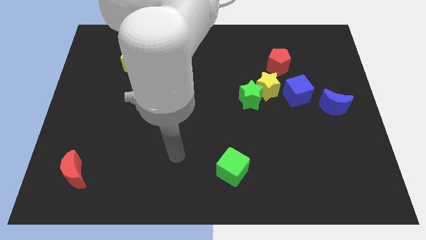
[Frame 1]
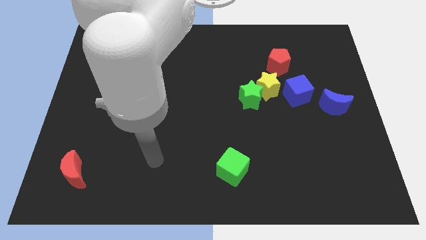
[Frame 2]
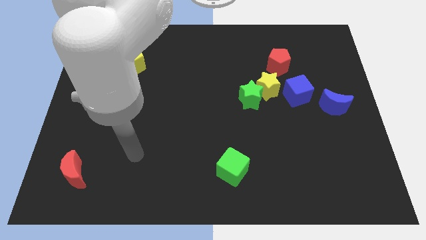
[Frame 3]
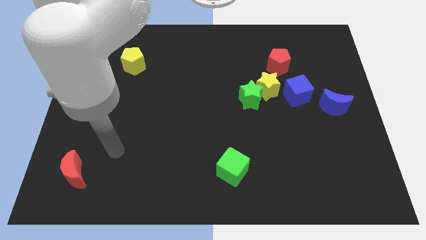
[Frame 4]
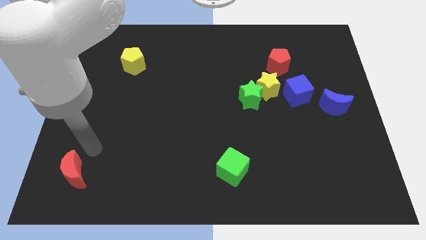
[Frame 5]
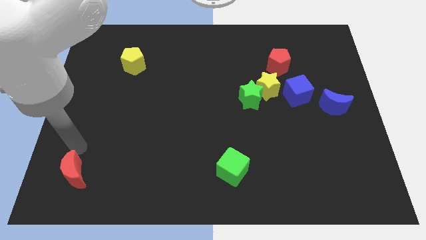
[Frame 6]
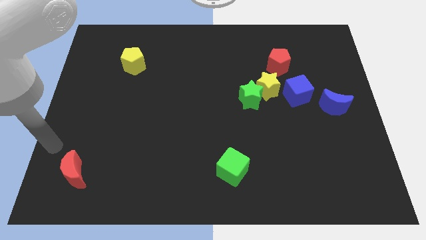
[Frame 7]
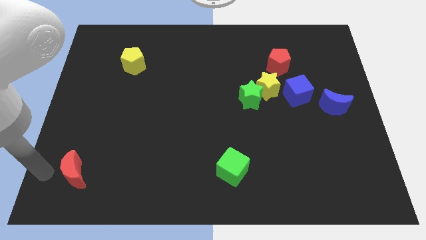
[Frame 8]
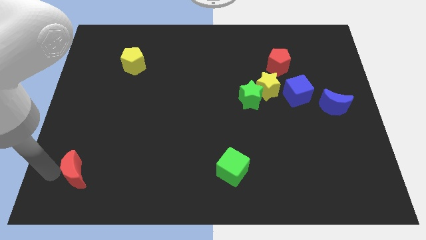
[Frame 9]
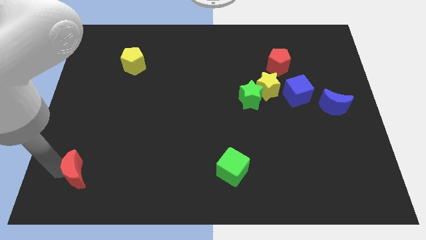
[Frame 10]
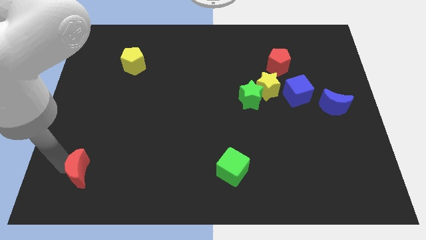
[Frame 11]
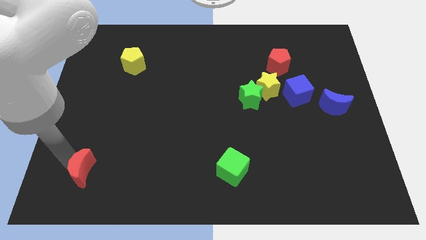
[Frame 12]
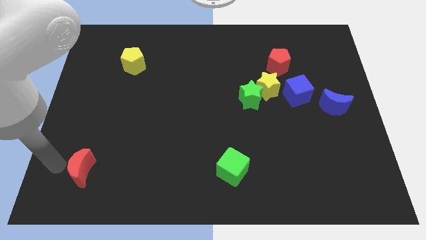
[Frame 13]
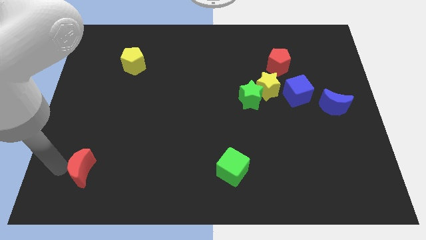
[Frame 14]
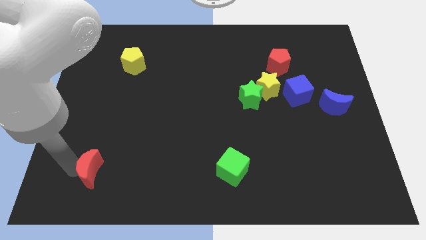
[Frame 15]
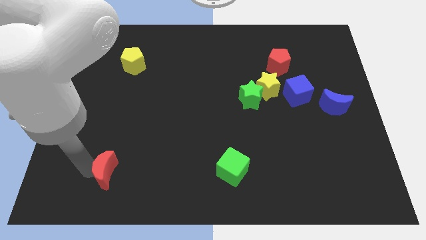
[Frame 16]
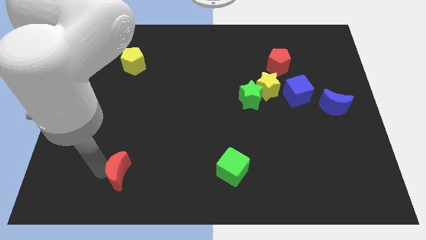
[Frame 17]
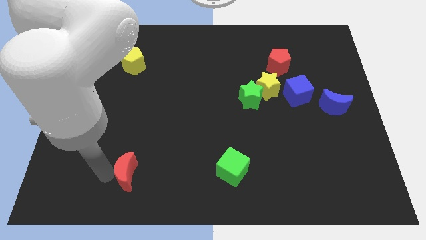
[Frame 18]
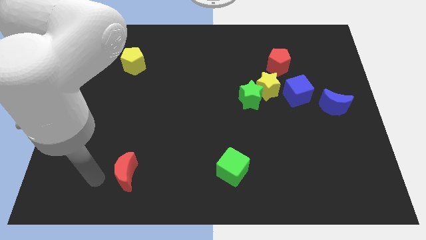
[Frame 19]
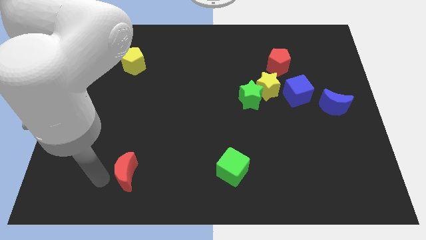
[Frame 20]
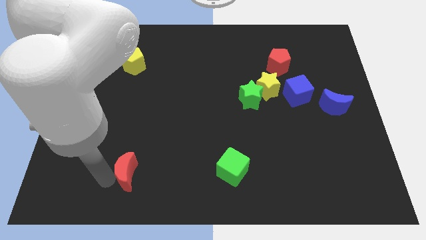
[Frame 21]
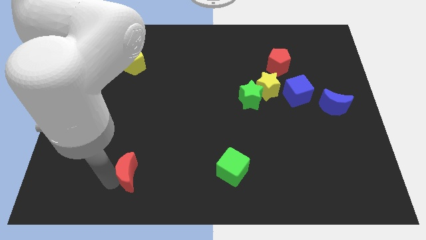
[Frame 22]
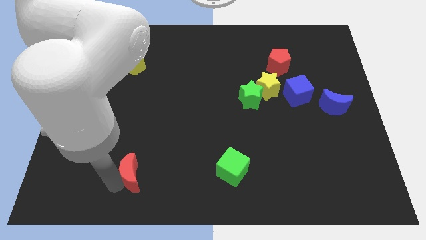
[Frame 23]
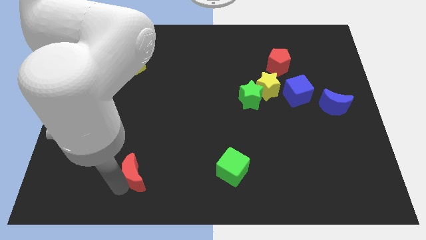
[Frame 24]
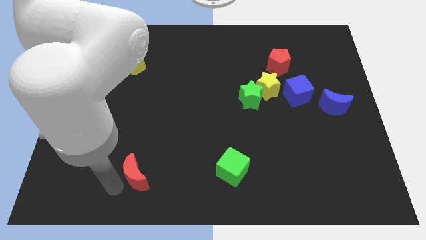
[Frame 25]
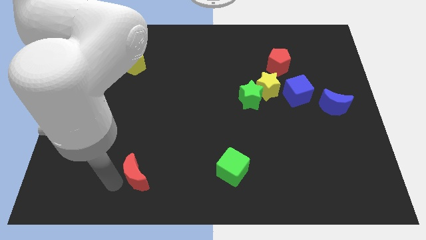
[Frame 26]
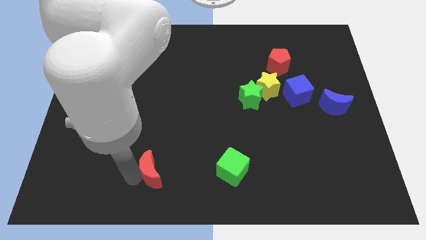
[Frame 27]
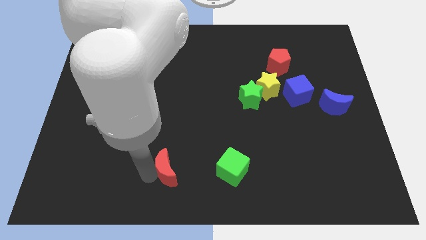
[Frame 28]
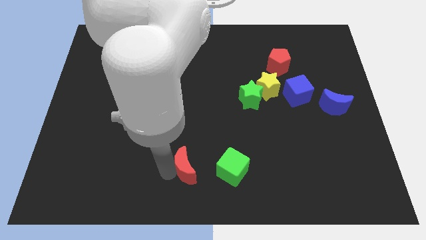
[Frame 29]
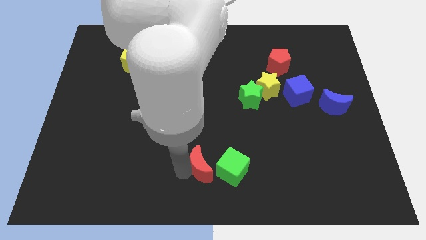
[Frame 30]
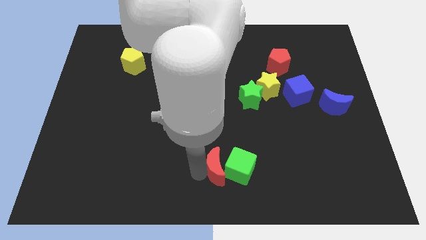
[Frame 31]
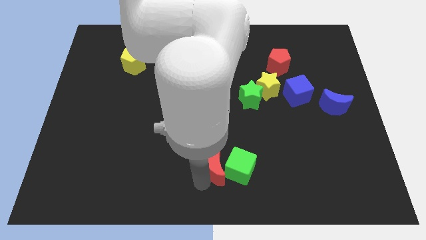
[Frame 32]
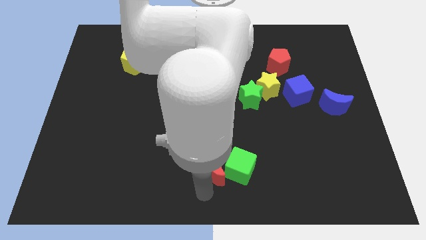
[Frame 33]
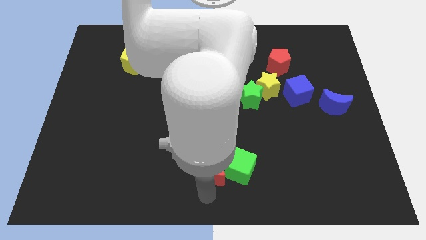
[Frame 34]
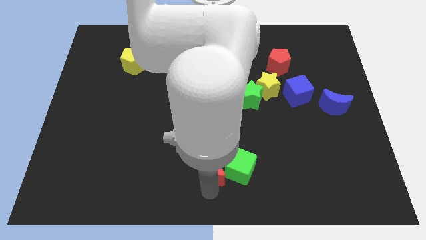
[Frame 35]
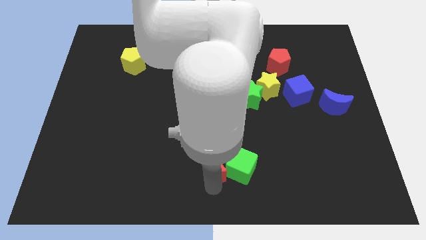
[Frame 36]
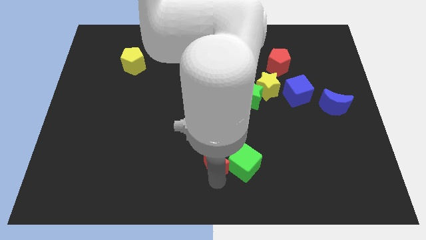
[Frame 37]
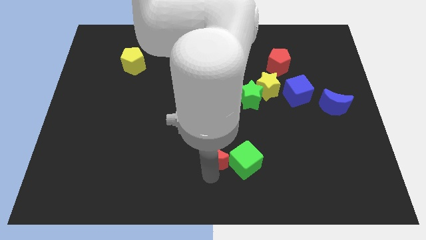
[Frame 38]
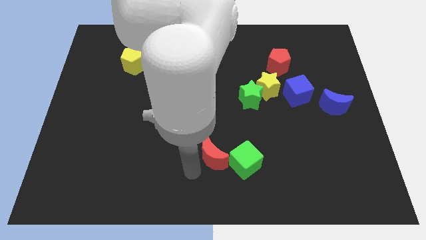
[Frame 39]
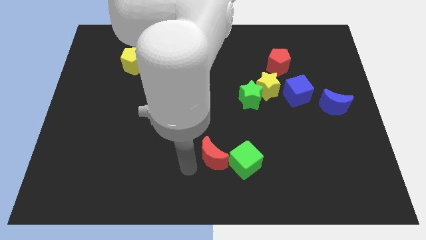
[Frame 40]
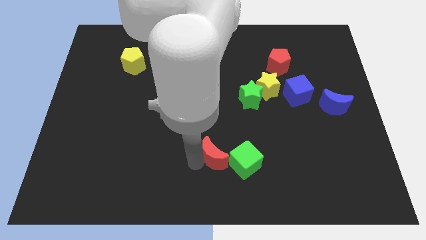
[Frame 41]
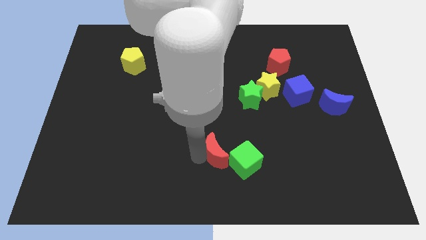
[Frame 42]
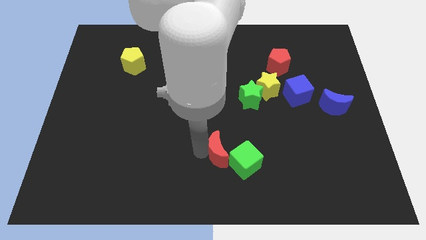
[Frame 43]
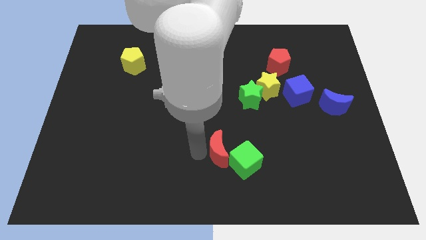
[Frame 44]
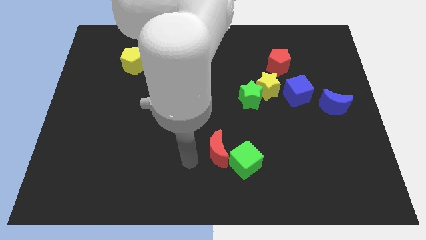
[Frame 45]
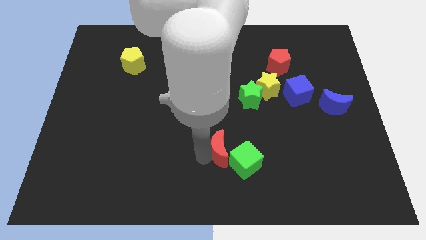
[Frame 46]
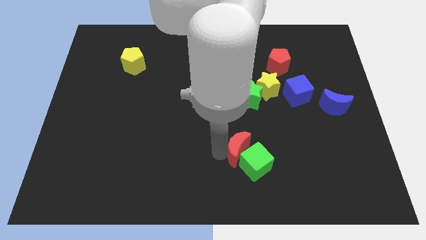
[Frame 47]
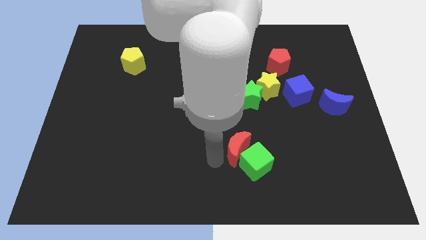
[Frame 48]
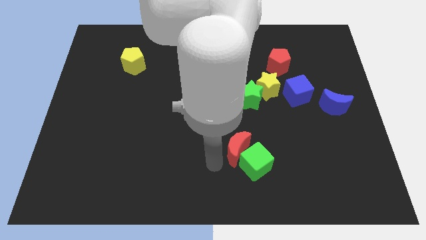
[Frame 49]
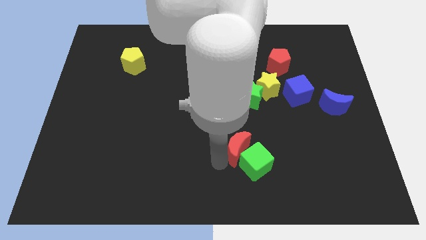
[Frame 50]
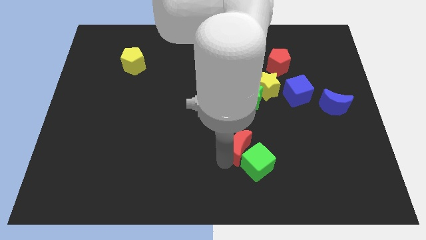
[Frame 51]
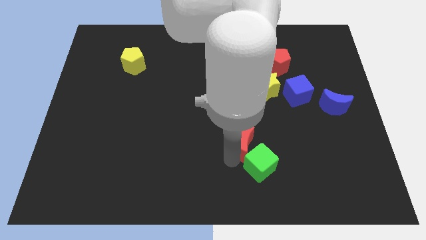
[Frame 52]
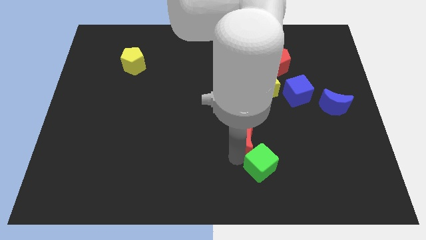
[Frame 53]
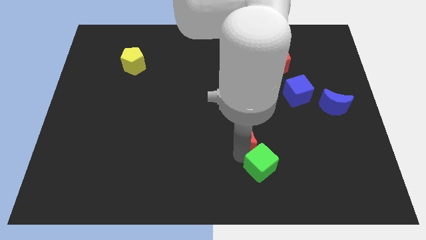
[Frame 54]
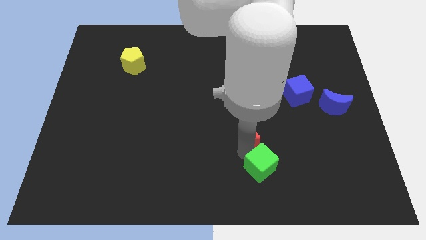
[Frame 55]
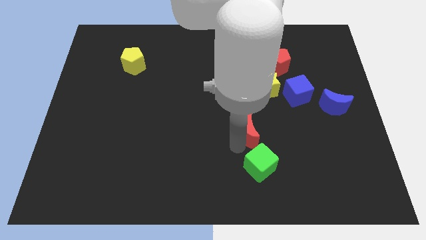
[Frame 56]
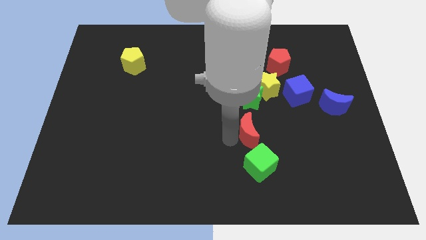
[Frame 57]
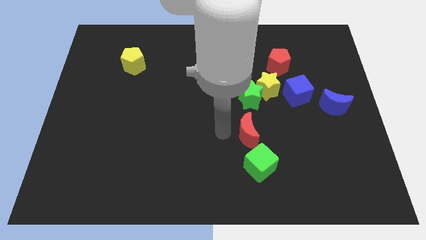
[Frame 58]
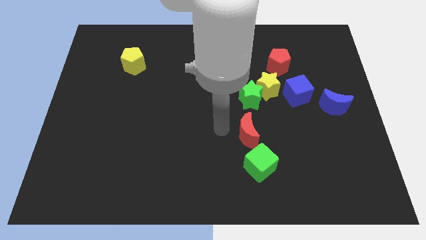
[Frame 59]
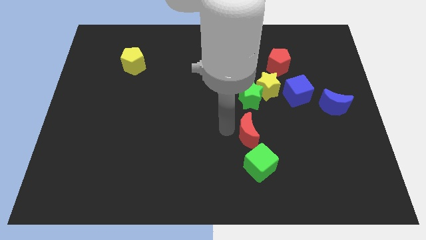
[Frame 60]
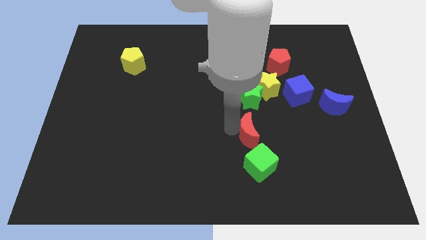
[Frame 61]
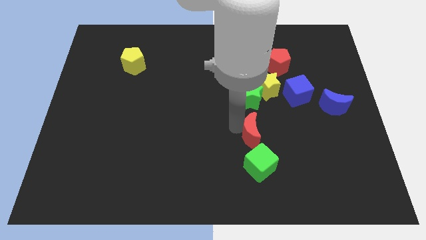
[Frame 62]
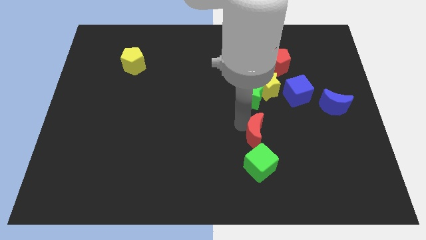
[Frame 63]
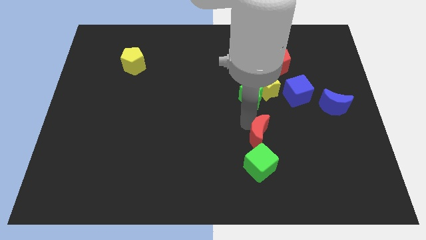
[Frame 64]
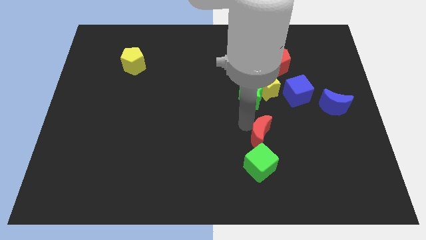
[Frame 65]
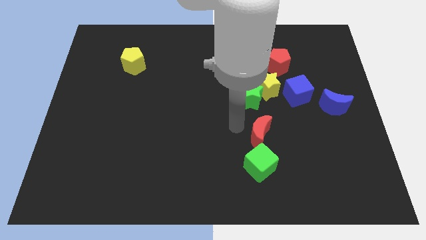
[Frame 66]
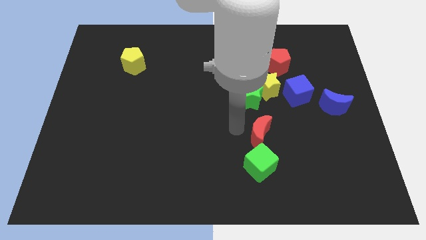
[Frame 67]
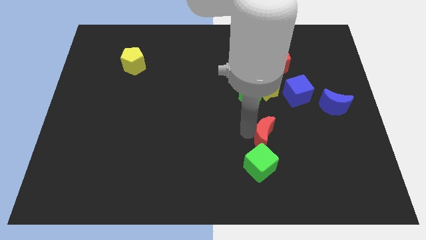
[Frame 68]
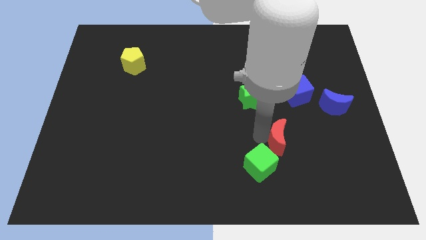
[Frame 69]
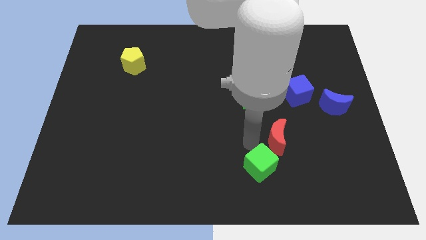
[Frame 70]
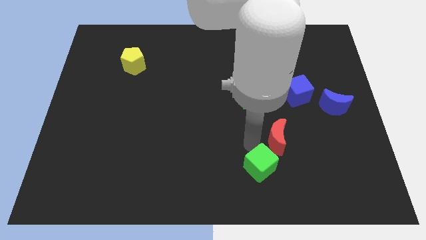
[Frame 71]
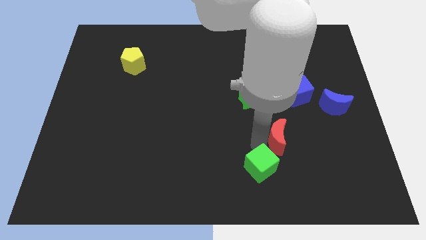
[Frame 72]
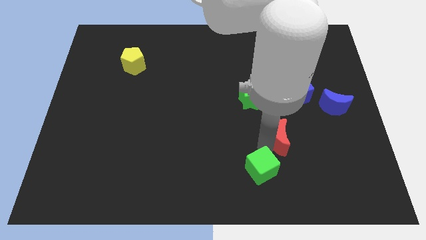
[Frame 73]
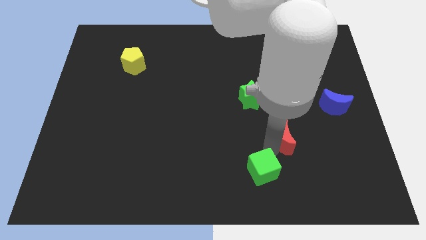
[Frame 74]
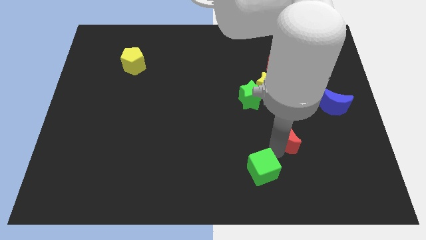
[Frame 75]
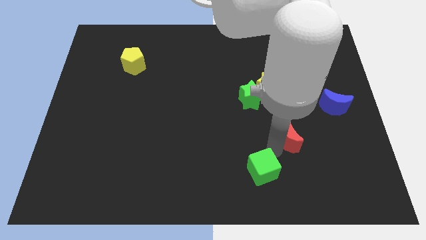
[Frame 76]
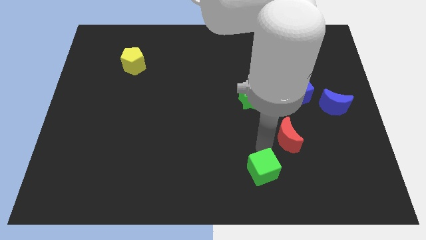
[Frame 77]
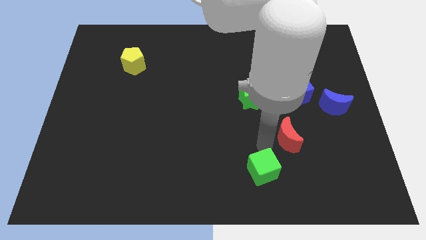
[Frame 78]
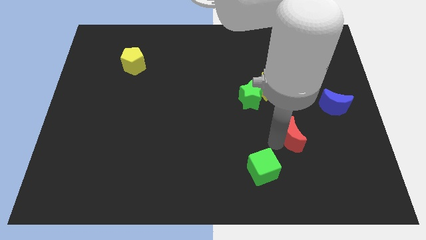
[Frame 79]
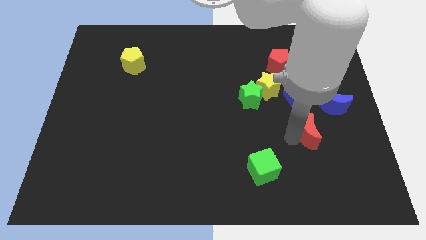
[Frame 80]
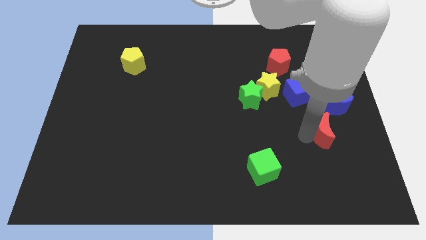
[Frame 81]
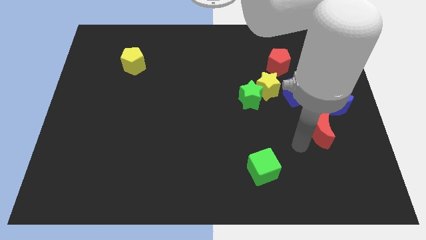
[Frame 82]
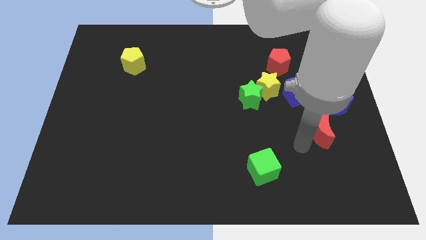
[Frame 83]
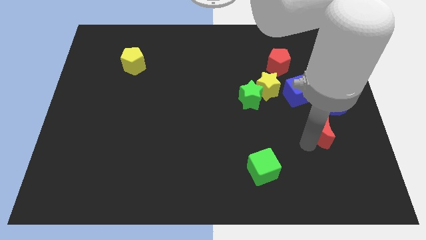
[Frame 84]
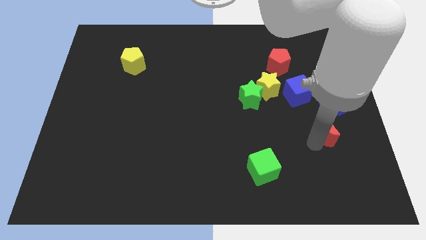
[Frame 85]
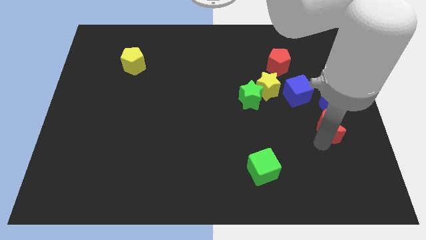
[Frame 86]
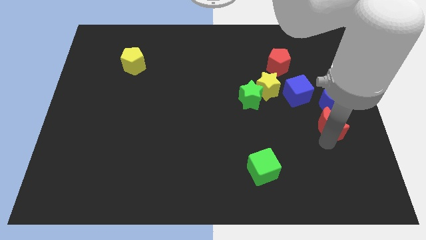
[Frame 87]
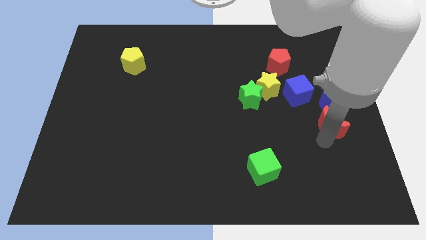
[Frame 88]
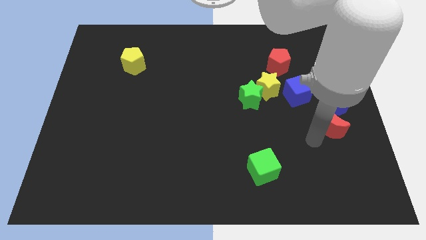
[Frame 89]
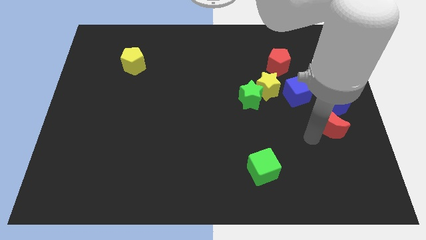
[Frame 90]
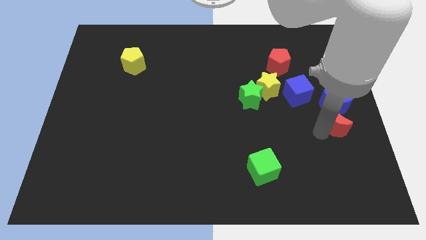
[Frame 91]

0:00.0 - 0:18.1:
put the red moon to the right side of the board
